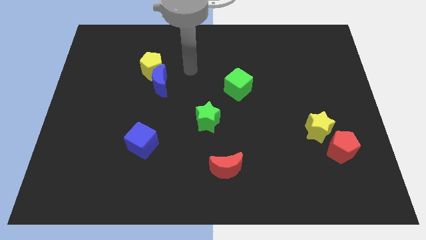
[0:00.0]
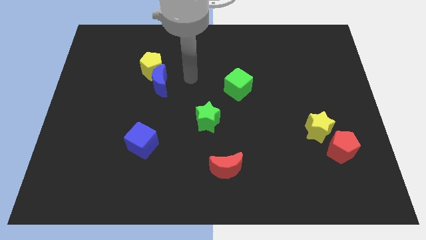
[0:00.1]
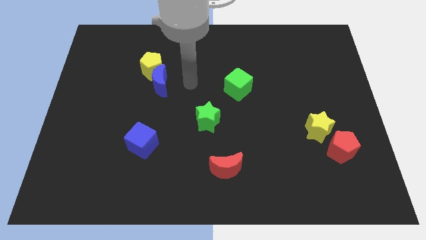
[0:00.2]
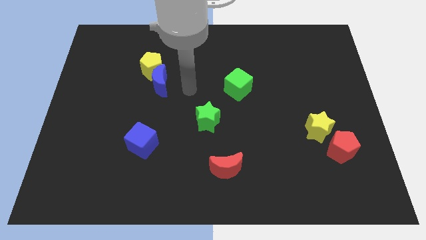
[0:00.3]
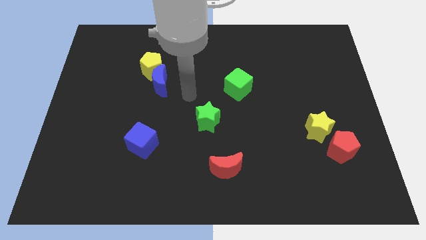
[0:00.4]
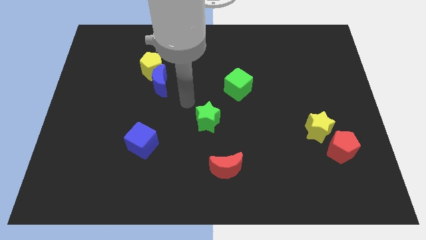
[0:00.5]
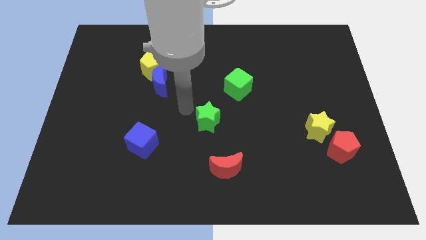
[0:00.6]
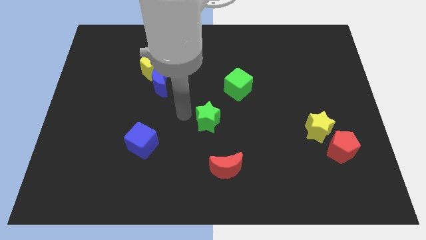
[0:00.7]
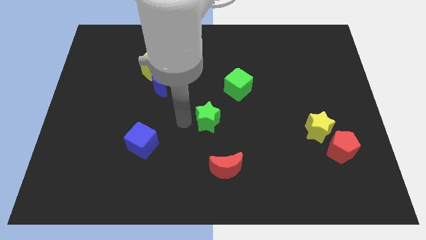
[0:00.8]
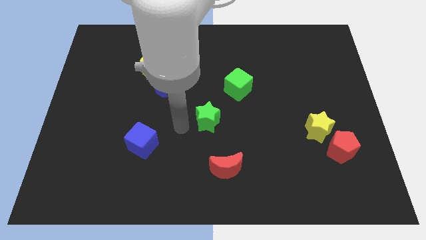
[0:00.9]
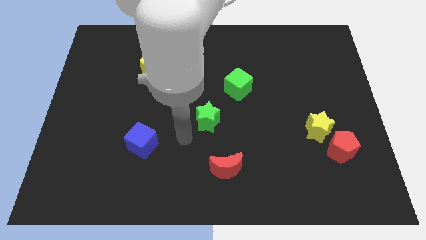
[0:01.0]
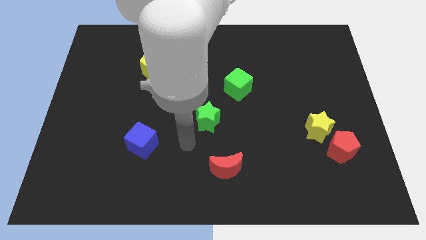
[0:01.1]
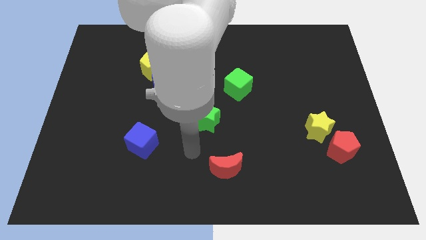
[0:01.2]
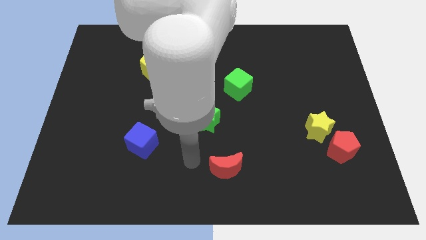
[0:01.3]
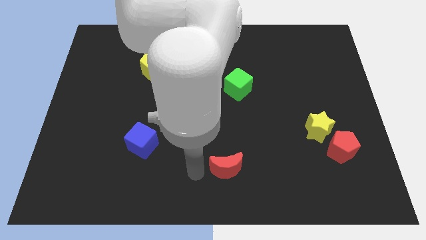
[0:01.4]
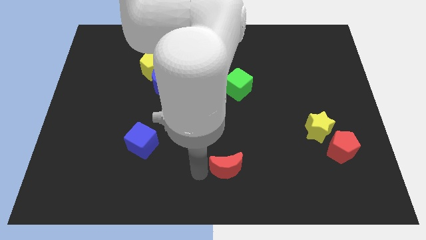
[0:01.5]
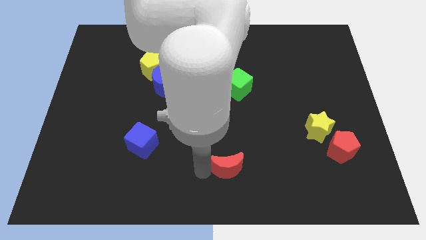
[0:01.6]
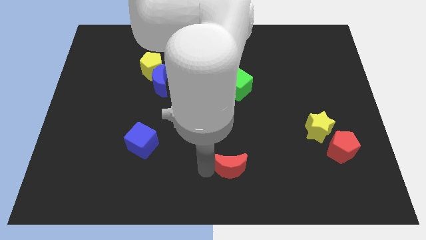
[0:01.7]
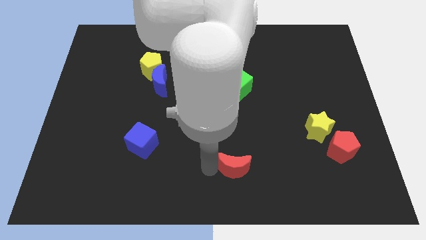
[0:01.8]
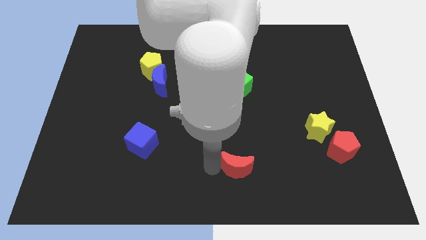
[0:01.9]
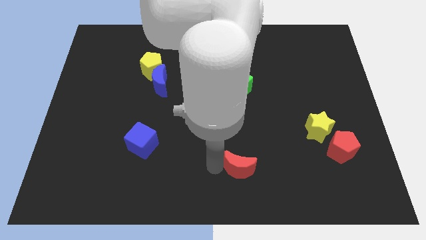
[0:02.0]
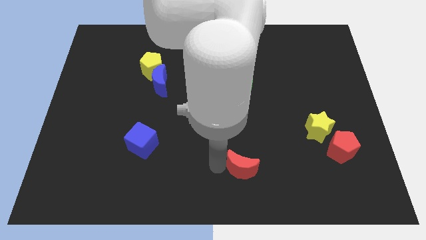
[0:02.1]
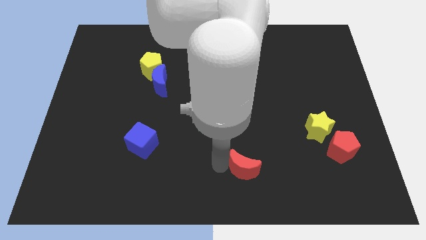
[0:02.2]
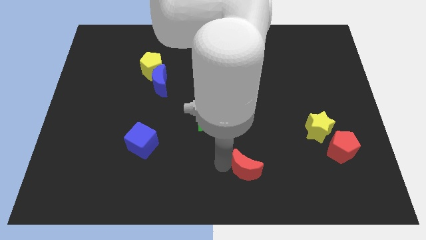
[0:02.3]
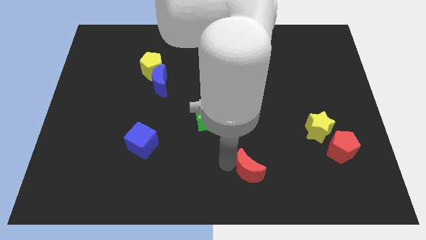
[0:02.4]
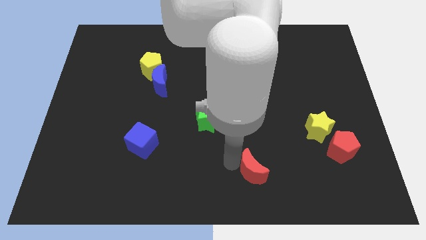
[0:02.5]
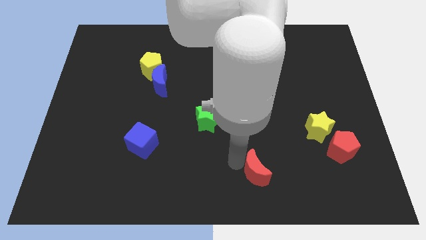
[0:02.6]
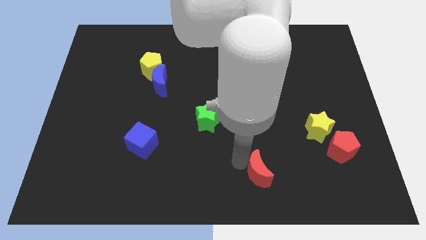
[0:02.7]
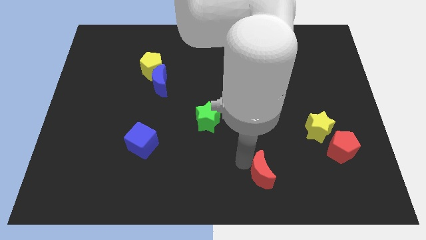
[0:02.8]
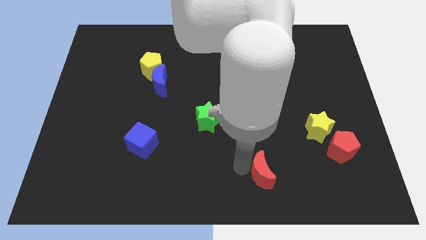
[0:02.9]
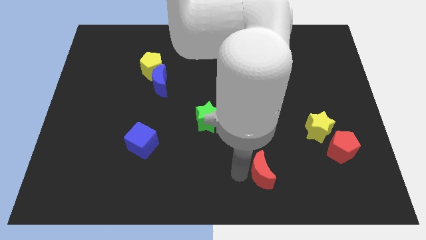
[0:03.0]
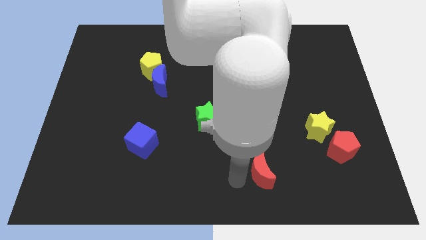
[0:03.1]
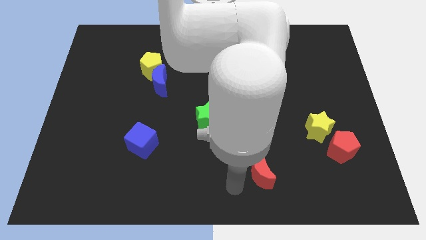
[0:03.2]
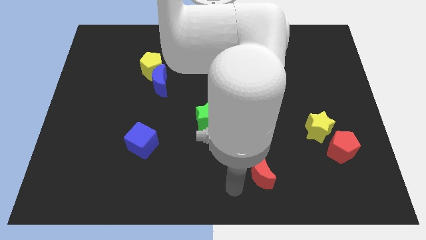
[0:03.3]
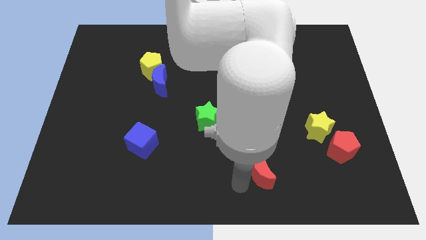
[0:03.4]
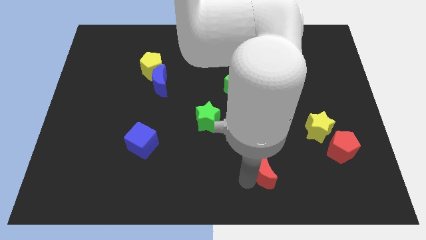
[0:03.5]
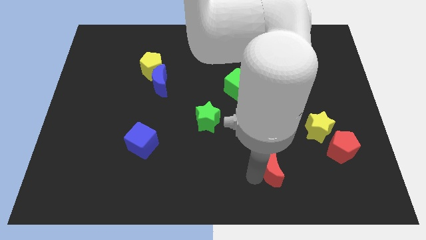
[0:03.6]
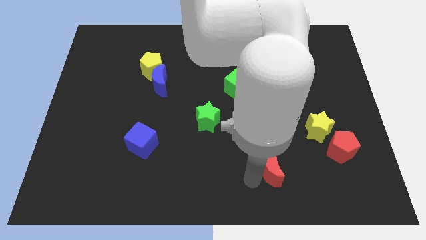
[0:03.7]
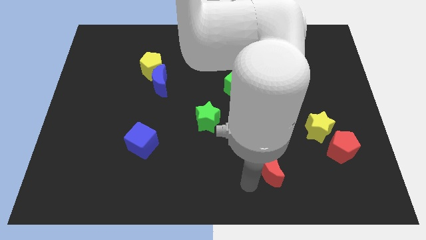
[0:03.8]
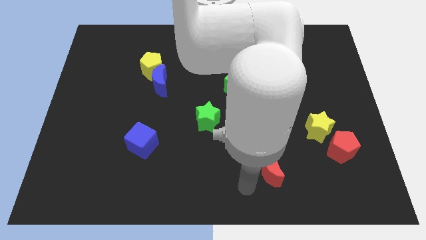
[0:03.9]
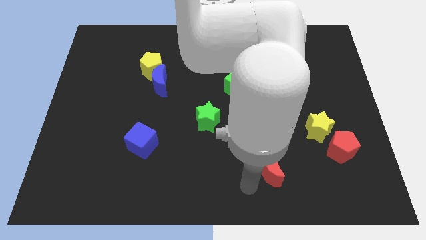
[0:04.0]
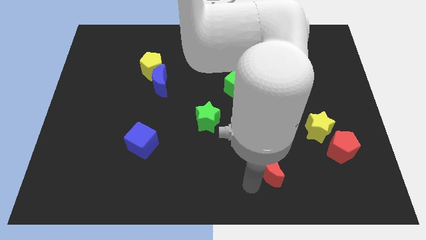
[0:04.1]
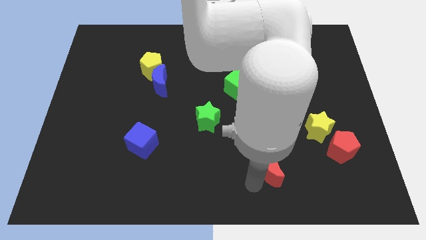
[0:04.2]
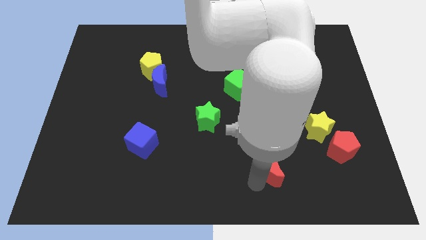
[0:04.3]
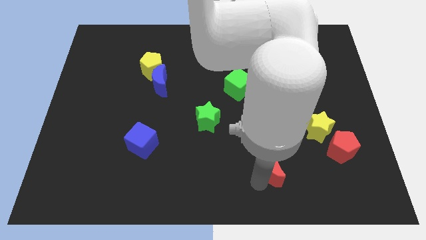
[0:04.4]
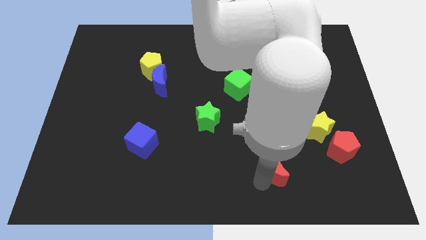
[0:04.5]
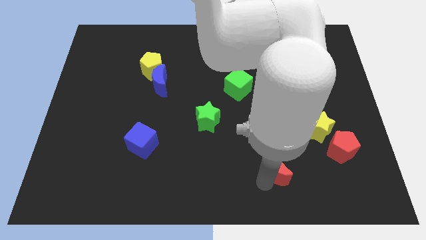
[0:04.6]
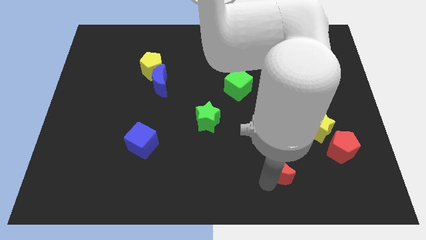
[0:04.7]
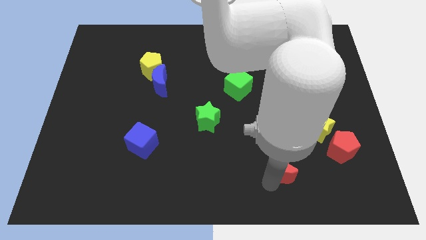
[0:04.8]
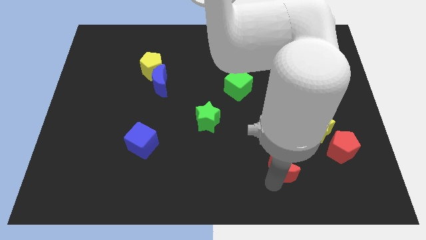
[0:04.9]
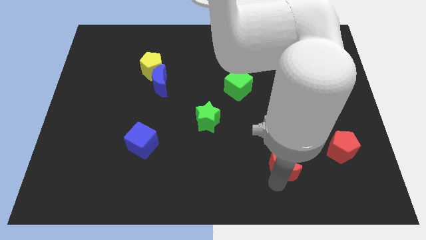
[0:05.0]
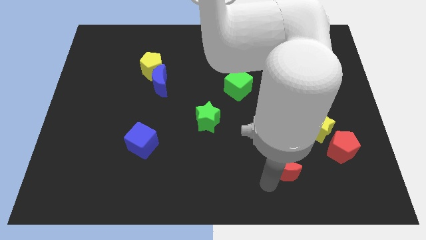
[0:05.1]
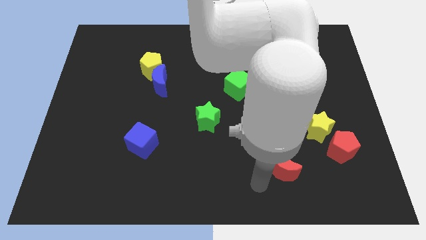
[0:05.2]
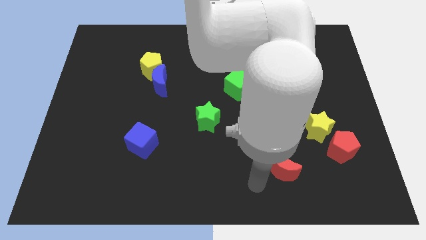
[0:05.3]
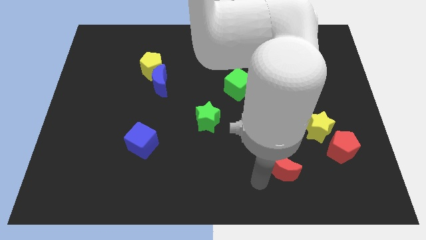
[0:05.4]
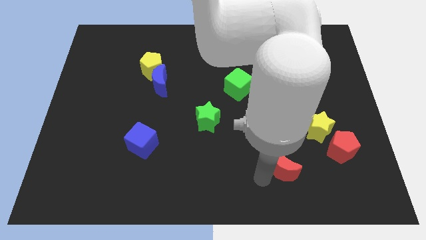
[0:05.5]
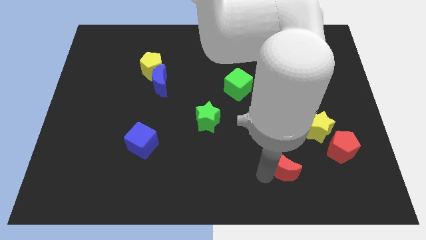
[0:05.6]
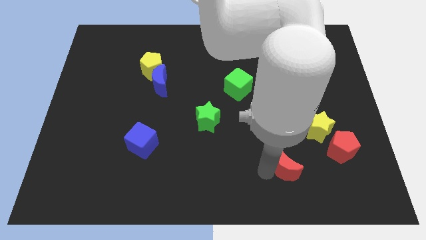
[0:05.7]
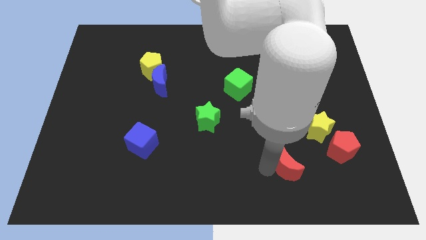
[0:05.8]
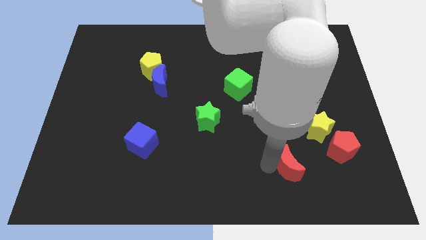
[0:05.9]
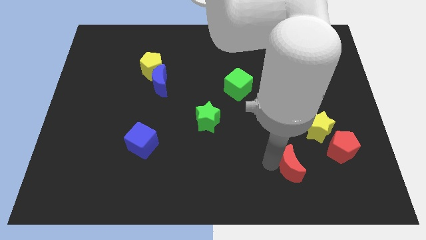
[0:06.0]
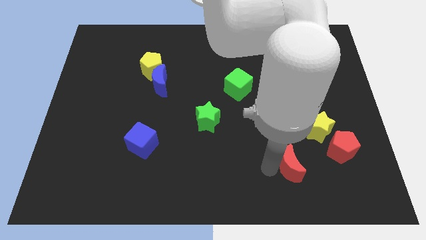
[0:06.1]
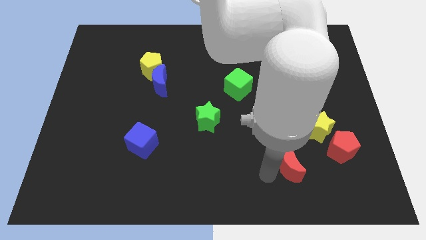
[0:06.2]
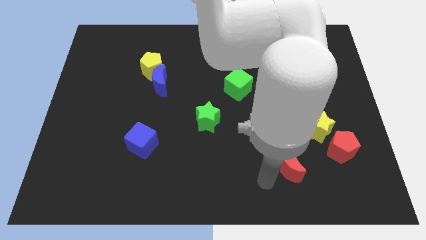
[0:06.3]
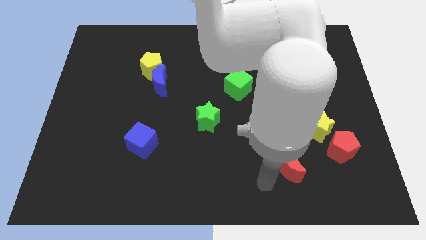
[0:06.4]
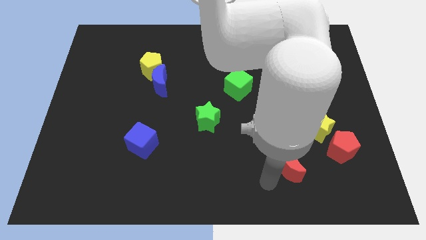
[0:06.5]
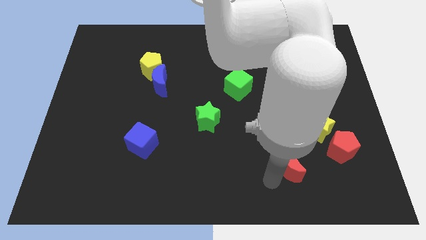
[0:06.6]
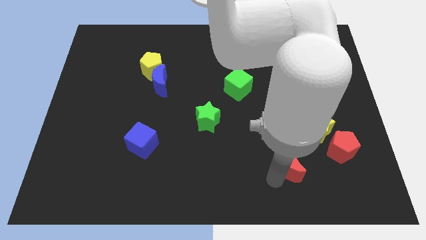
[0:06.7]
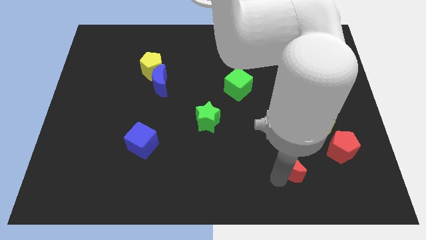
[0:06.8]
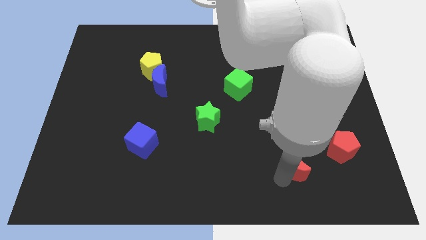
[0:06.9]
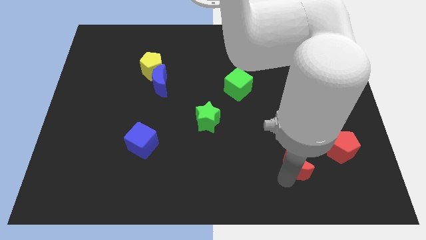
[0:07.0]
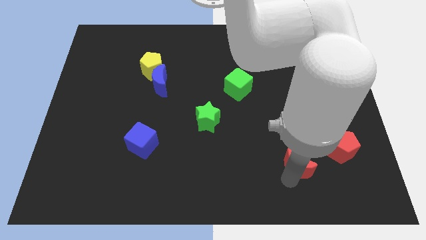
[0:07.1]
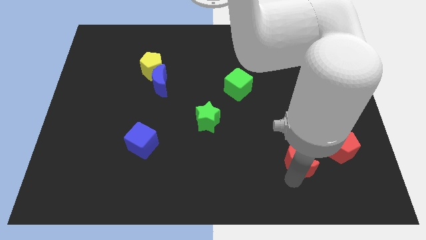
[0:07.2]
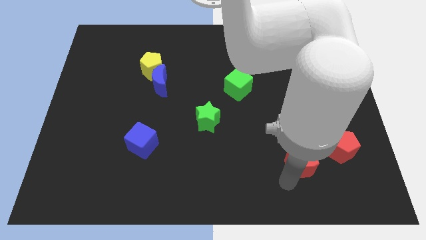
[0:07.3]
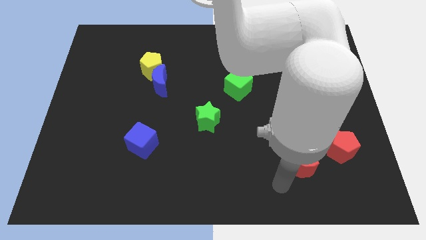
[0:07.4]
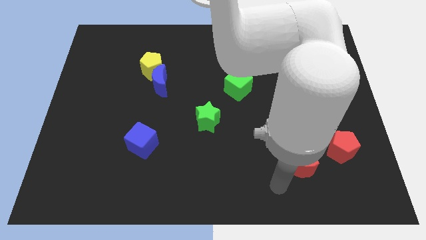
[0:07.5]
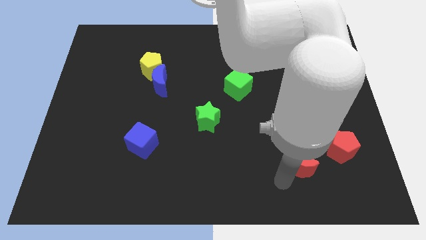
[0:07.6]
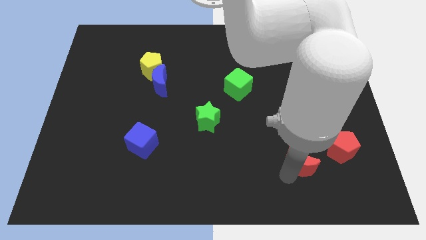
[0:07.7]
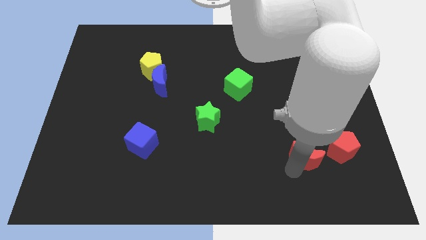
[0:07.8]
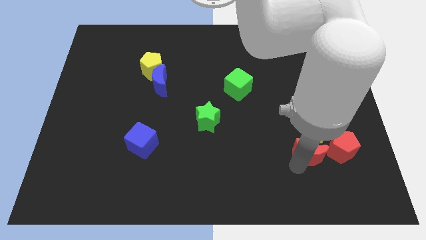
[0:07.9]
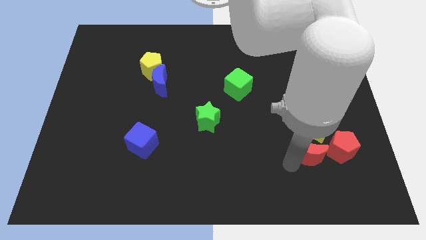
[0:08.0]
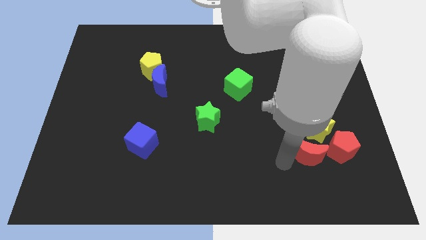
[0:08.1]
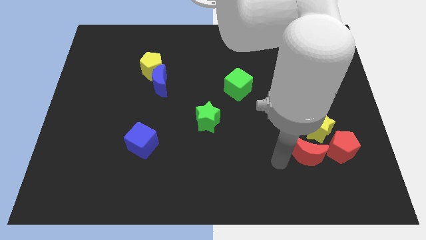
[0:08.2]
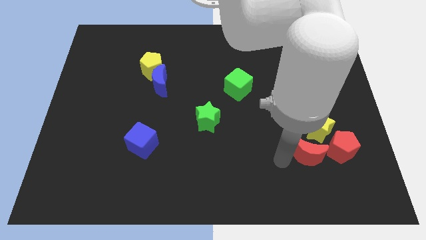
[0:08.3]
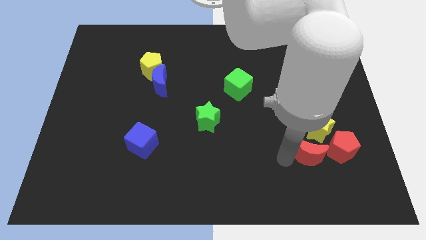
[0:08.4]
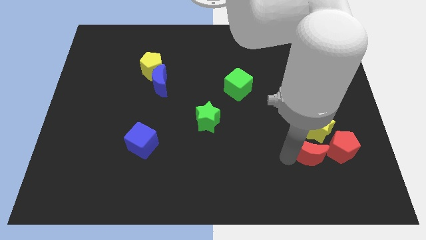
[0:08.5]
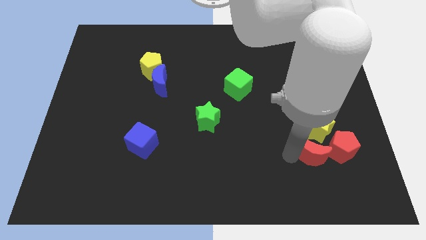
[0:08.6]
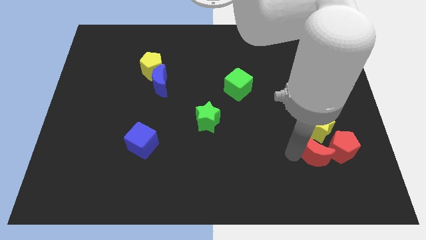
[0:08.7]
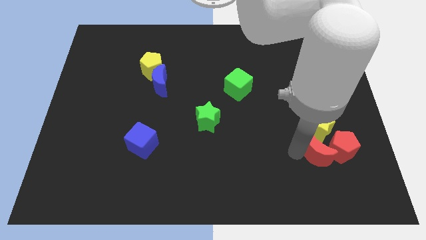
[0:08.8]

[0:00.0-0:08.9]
push the red moon to the red pentagon
